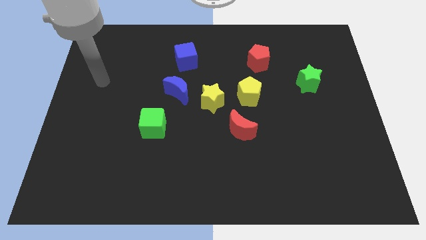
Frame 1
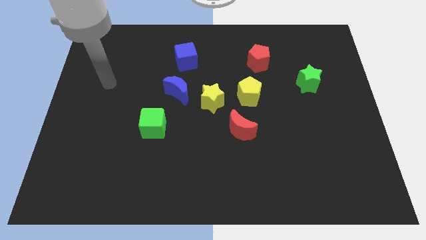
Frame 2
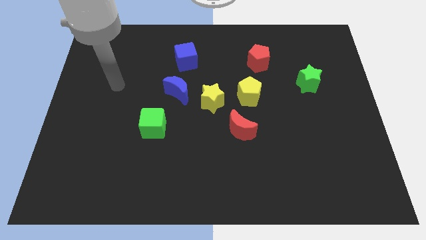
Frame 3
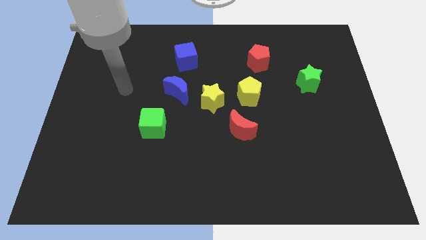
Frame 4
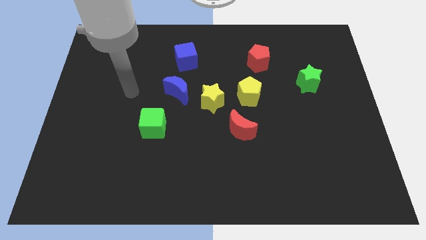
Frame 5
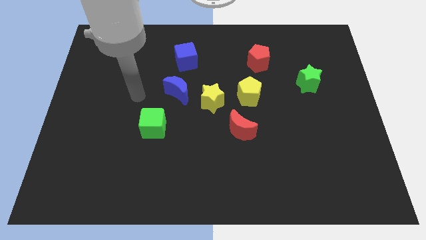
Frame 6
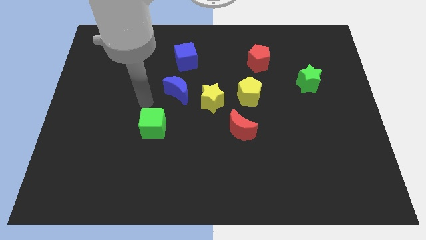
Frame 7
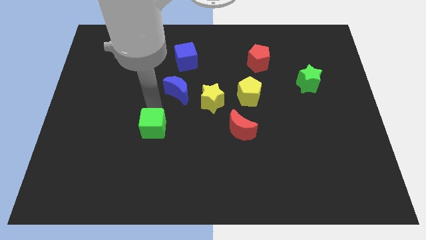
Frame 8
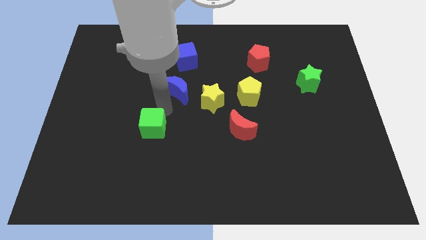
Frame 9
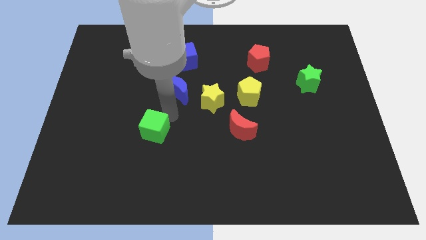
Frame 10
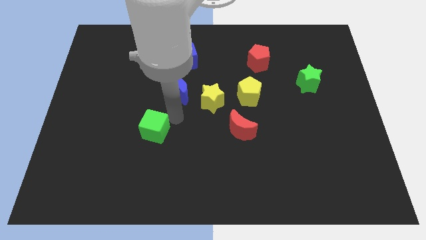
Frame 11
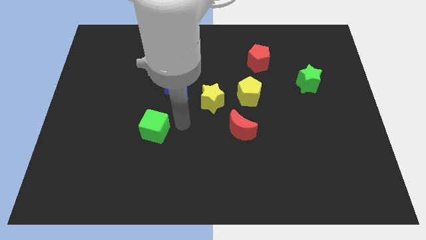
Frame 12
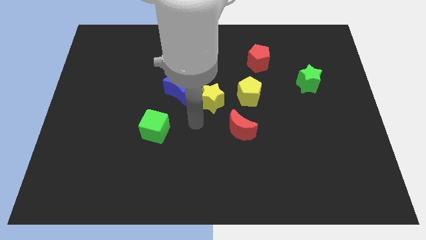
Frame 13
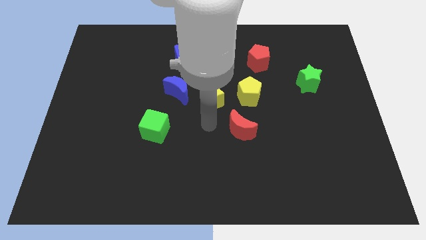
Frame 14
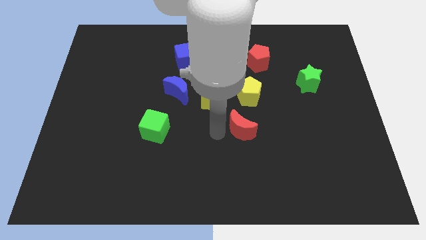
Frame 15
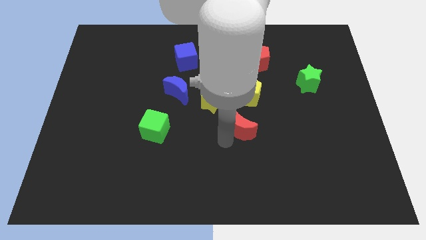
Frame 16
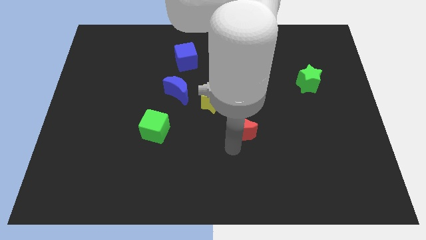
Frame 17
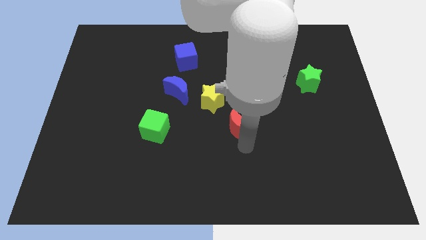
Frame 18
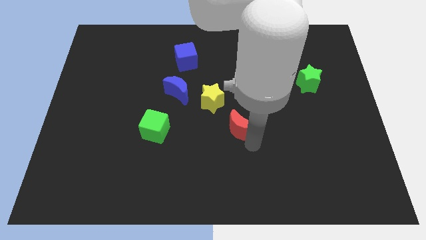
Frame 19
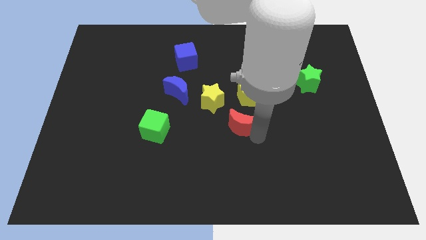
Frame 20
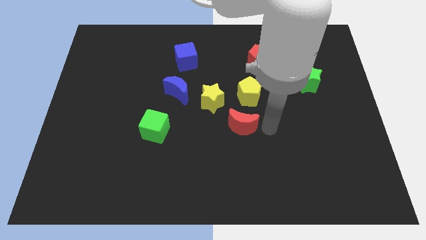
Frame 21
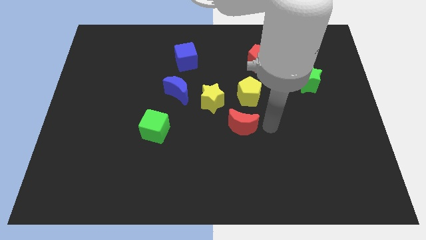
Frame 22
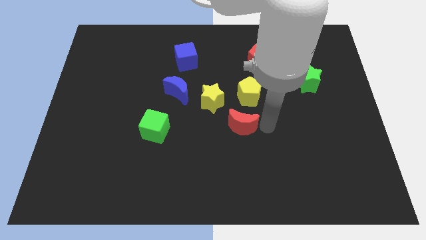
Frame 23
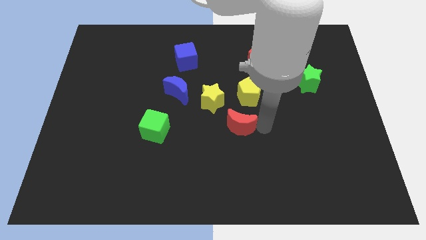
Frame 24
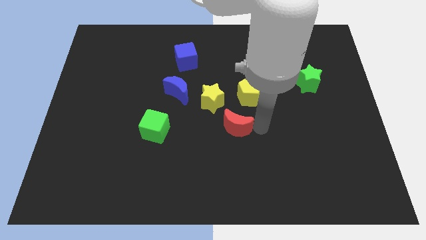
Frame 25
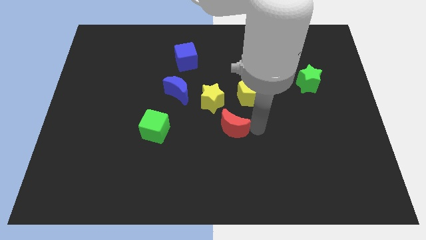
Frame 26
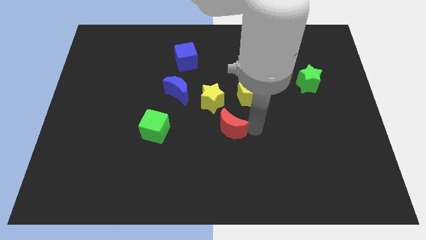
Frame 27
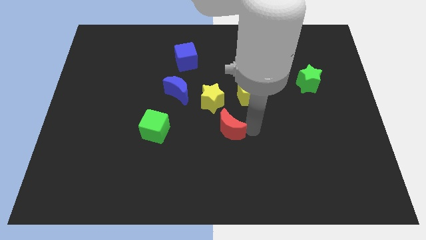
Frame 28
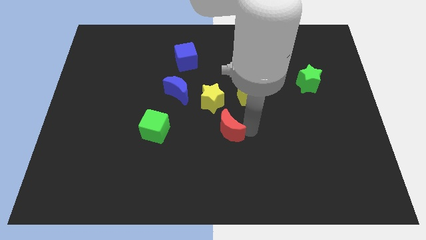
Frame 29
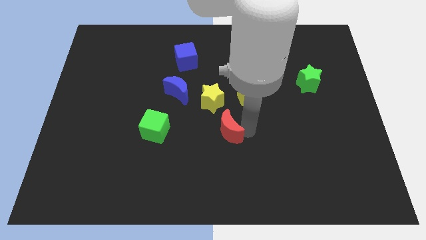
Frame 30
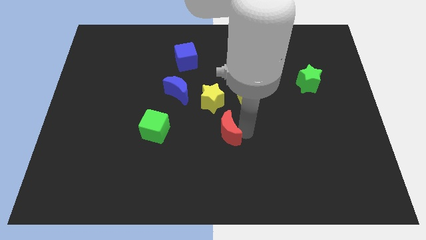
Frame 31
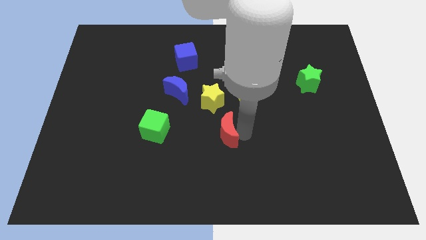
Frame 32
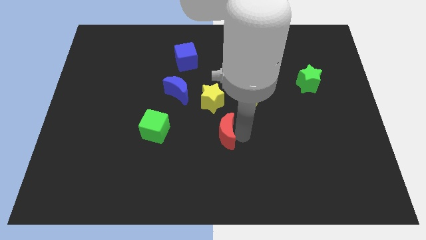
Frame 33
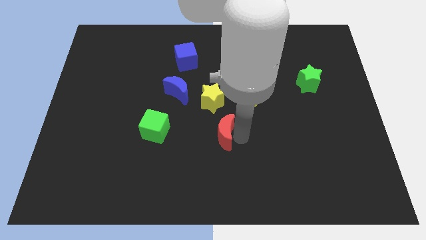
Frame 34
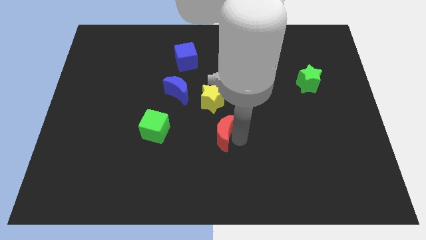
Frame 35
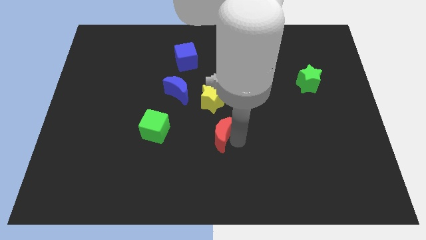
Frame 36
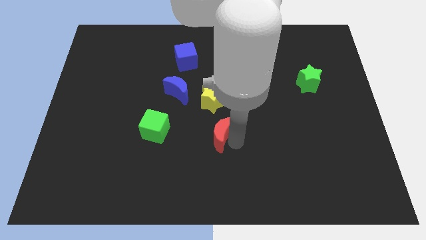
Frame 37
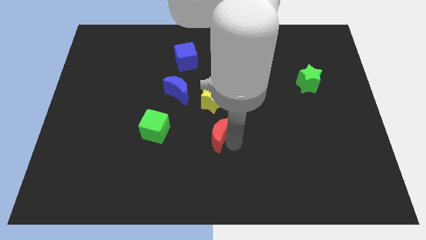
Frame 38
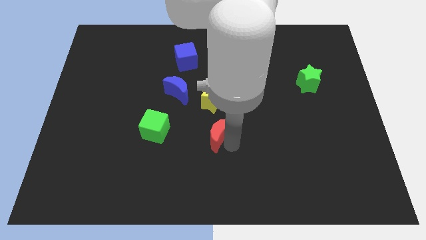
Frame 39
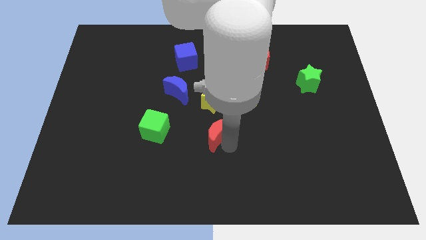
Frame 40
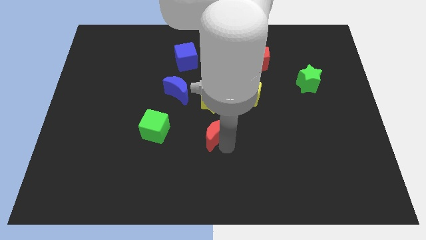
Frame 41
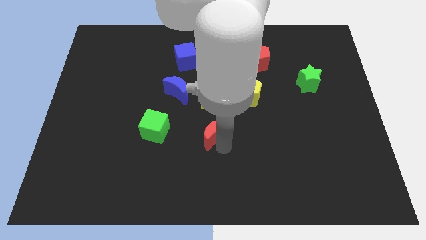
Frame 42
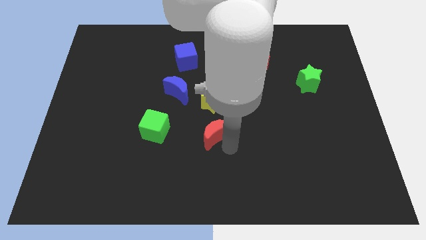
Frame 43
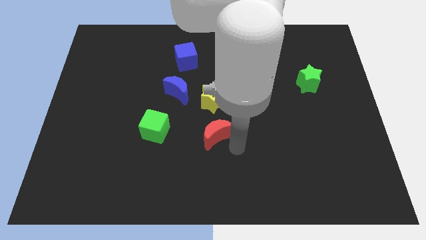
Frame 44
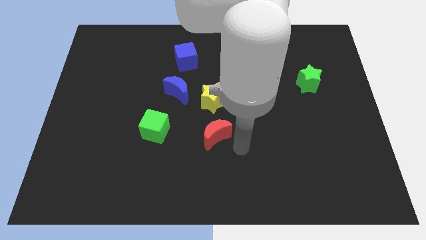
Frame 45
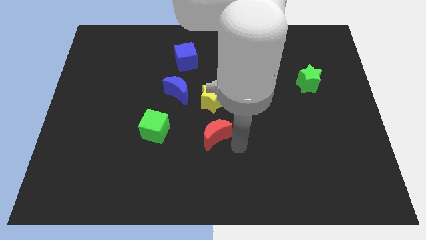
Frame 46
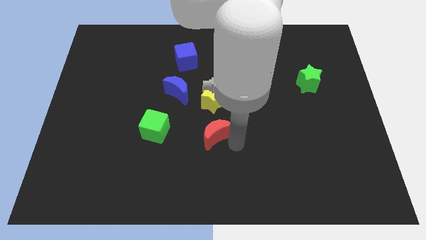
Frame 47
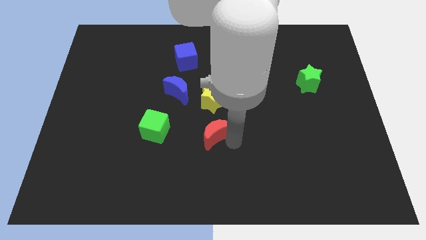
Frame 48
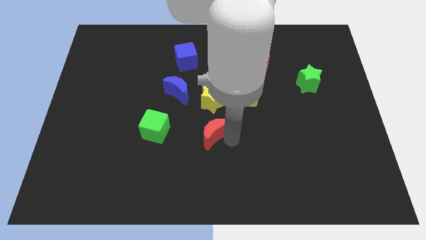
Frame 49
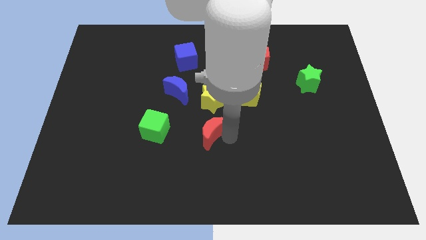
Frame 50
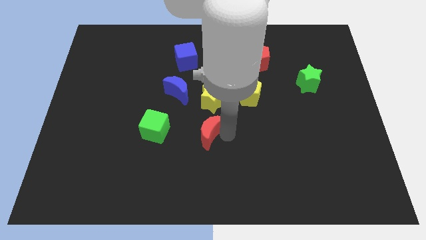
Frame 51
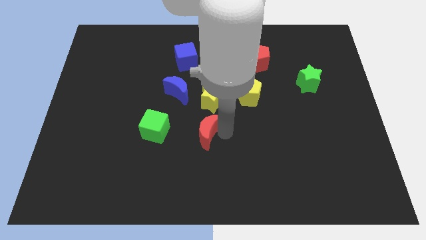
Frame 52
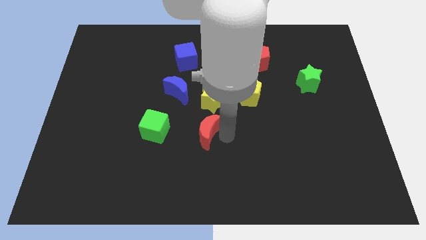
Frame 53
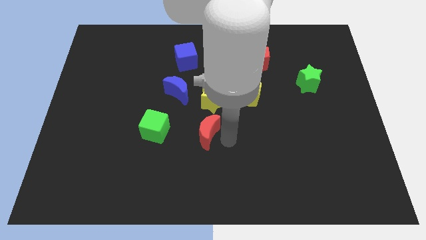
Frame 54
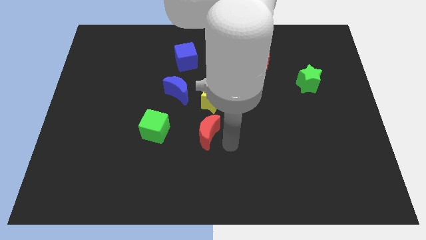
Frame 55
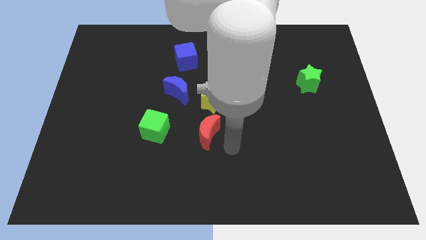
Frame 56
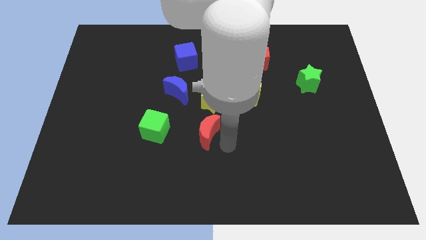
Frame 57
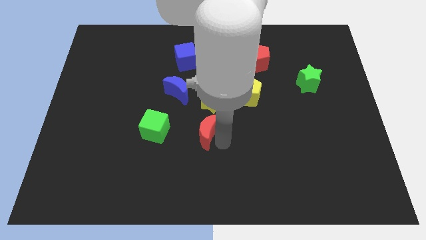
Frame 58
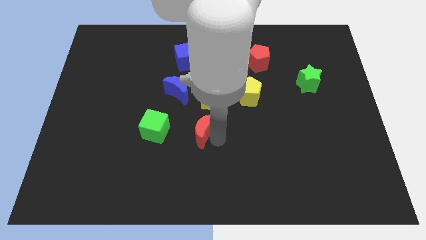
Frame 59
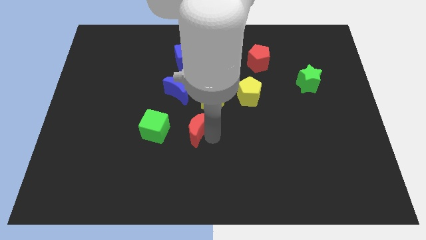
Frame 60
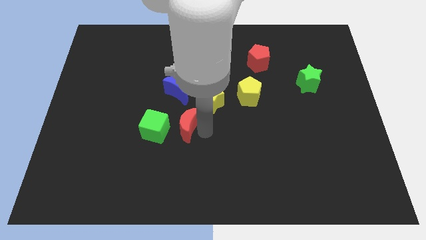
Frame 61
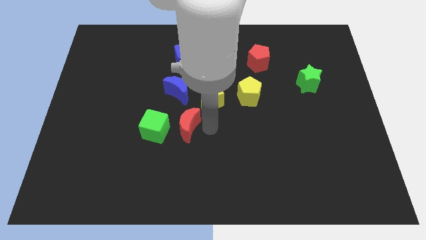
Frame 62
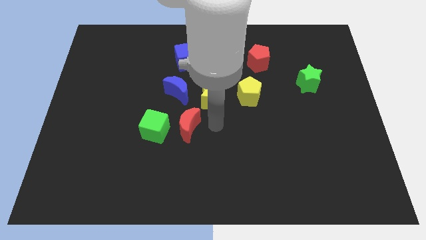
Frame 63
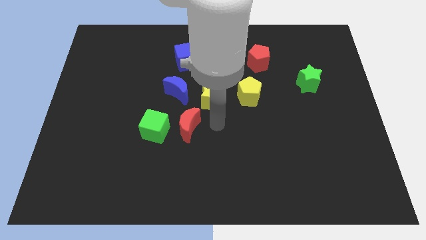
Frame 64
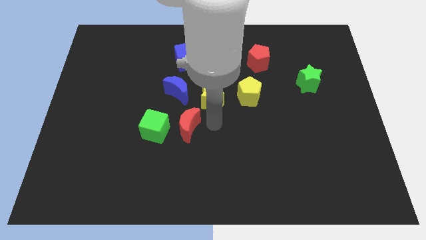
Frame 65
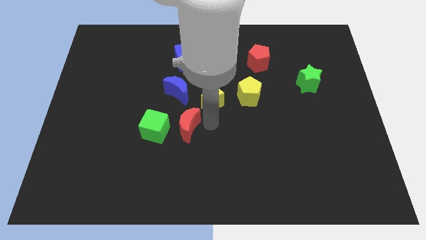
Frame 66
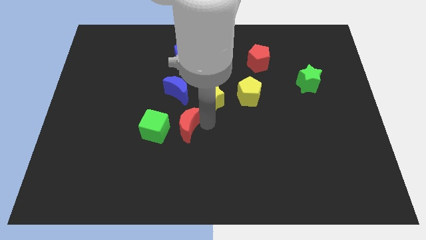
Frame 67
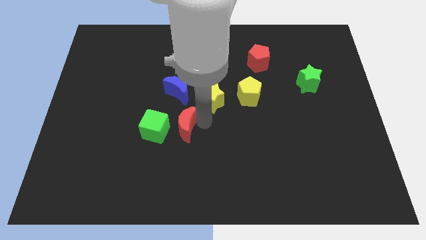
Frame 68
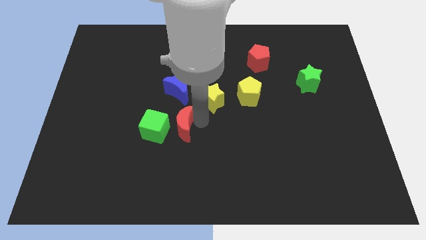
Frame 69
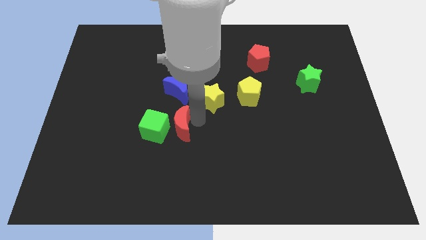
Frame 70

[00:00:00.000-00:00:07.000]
slide the red moon close to the green cube
